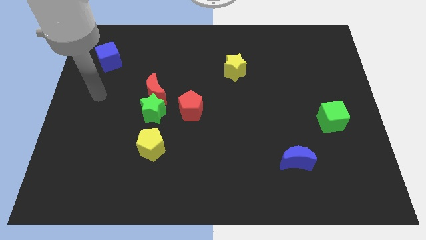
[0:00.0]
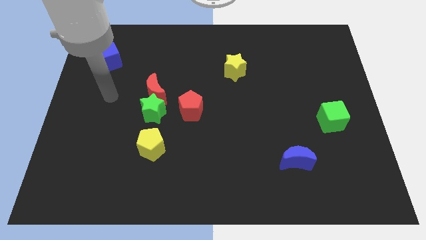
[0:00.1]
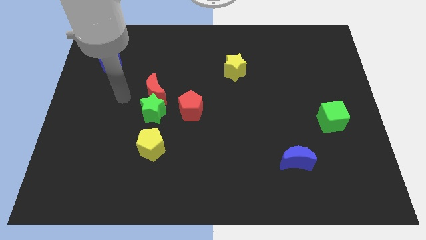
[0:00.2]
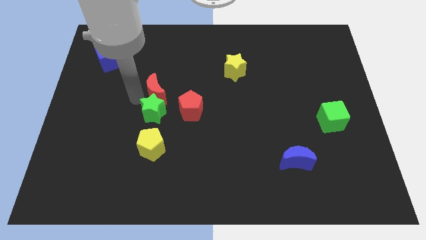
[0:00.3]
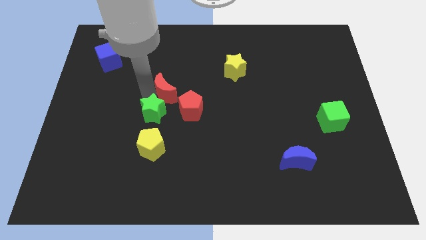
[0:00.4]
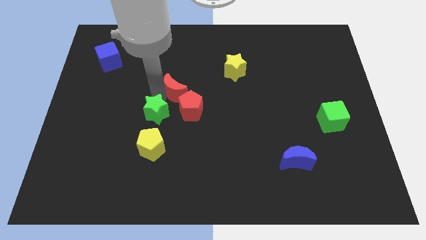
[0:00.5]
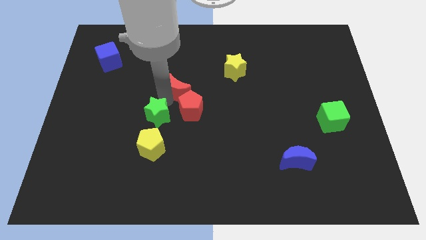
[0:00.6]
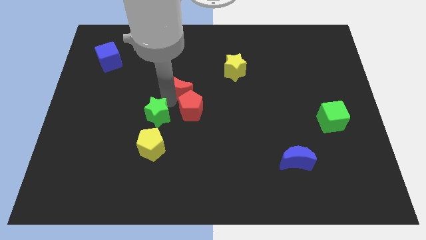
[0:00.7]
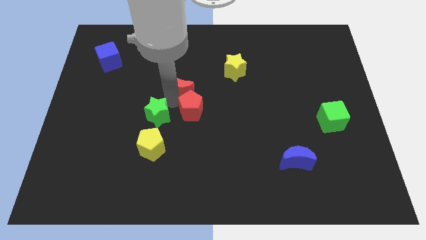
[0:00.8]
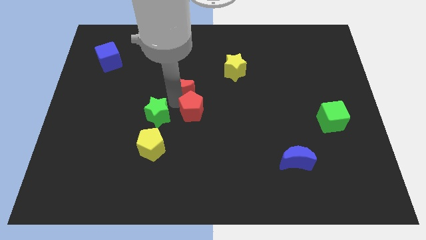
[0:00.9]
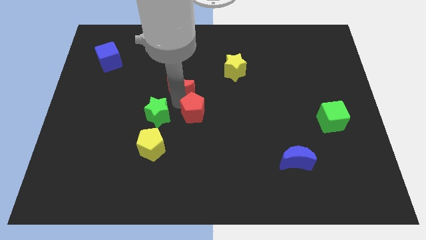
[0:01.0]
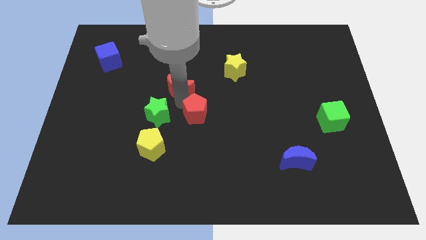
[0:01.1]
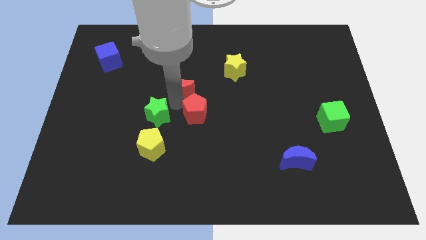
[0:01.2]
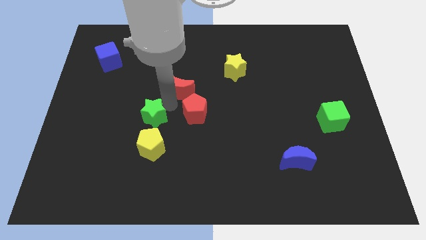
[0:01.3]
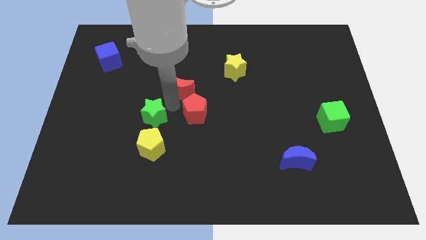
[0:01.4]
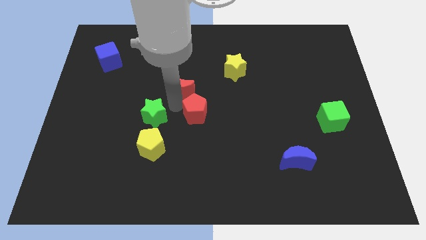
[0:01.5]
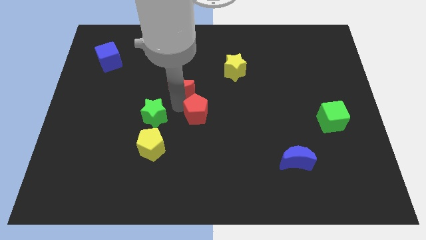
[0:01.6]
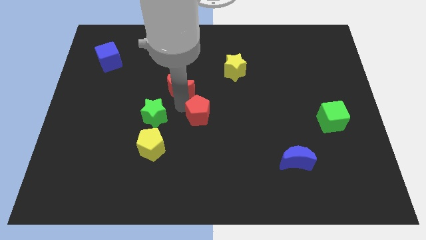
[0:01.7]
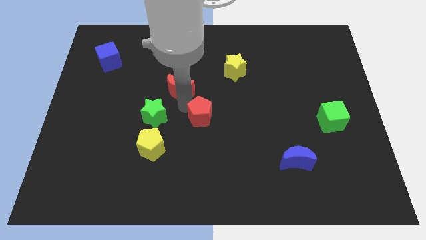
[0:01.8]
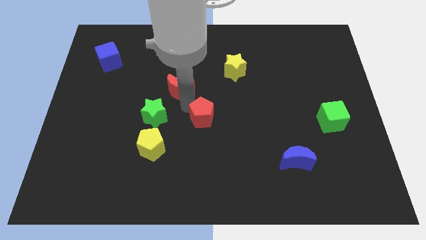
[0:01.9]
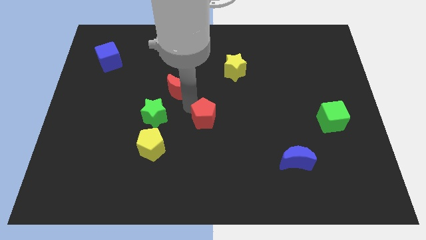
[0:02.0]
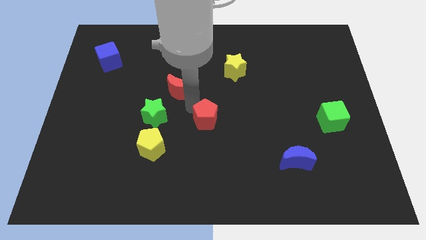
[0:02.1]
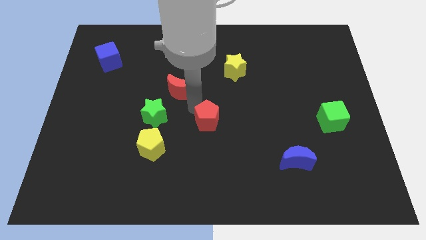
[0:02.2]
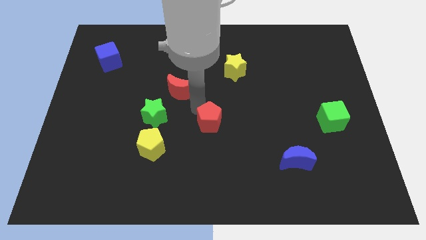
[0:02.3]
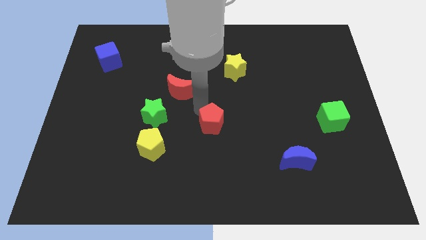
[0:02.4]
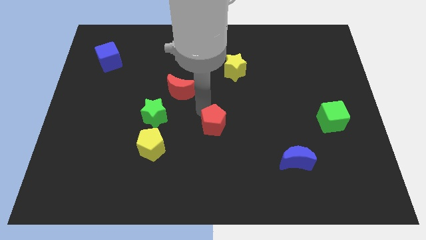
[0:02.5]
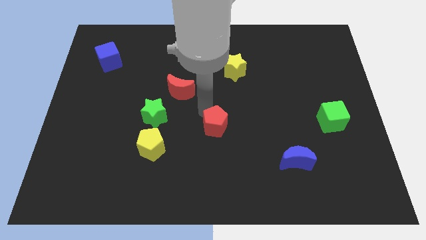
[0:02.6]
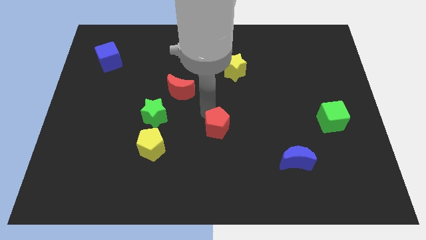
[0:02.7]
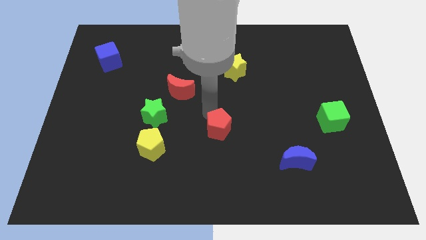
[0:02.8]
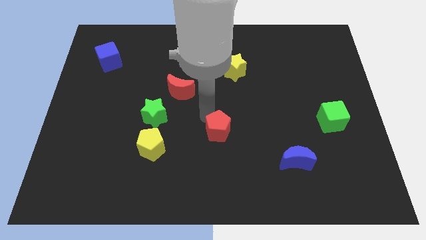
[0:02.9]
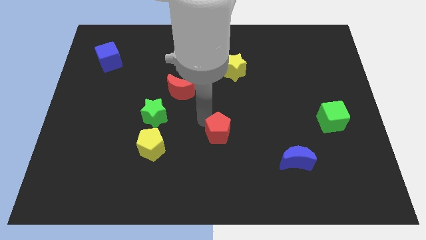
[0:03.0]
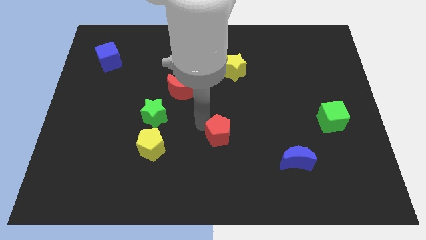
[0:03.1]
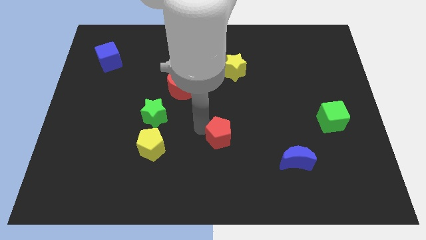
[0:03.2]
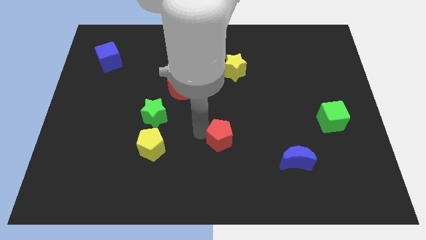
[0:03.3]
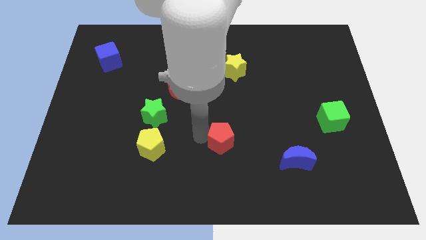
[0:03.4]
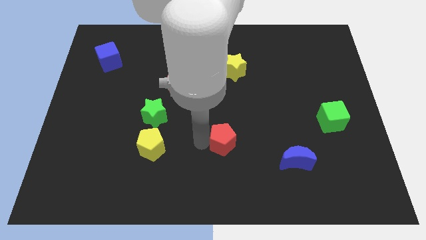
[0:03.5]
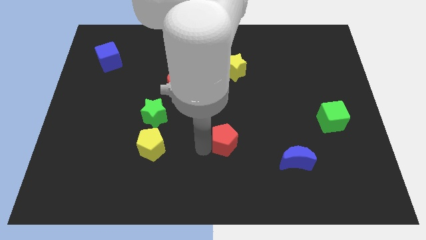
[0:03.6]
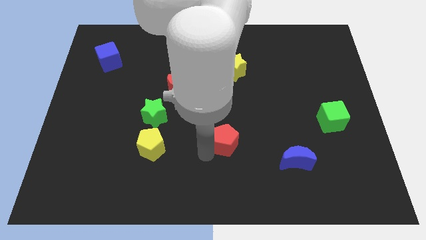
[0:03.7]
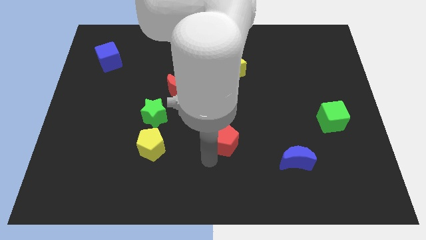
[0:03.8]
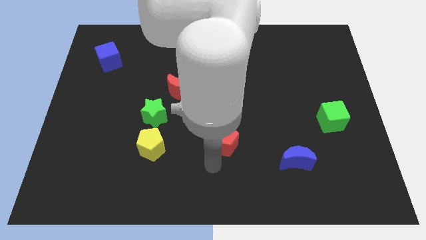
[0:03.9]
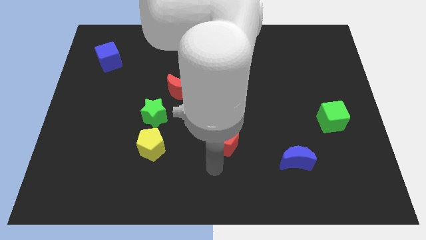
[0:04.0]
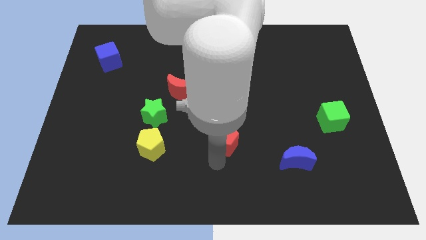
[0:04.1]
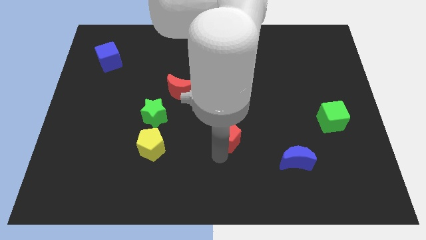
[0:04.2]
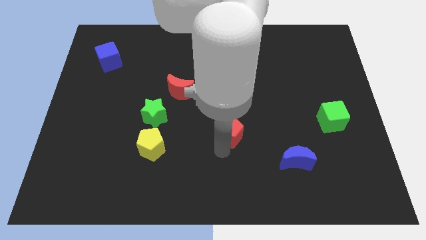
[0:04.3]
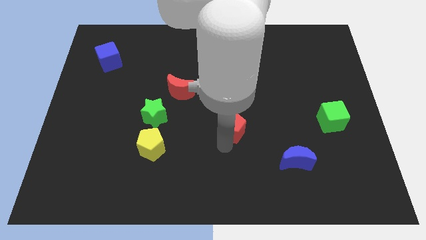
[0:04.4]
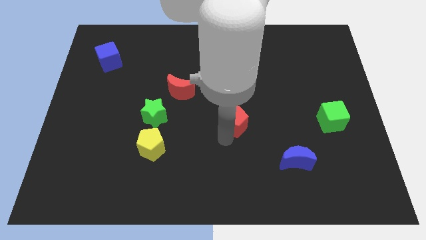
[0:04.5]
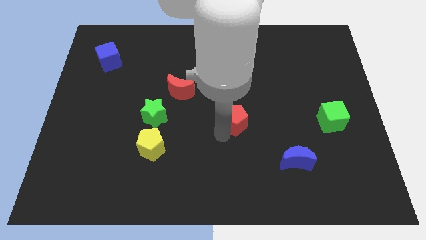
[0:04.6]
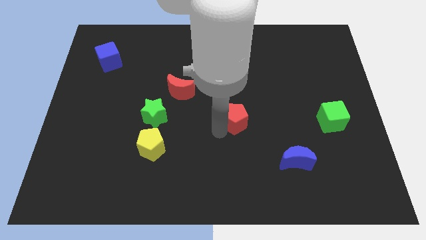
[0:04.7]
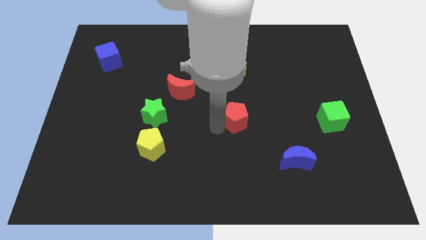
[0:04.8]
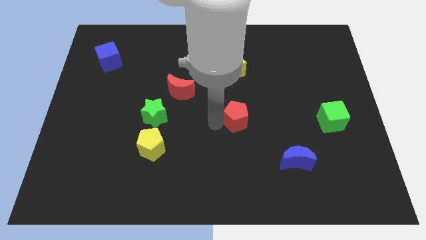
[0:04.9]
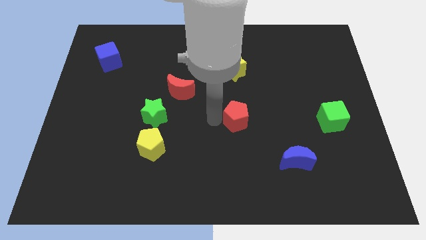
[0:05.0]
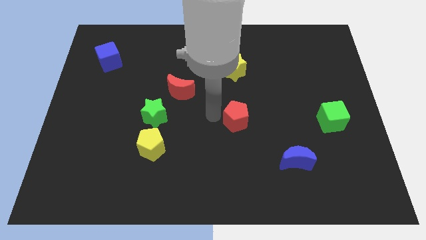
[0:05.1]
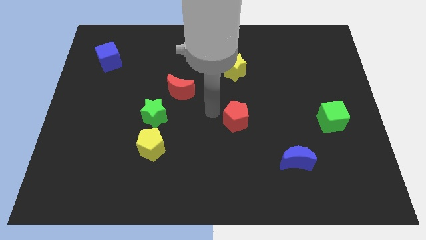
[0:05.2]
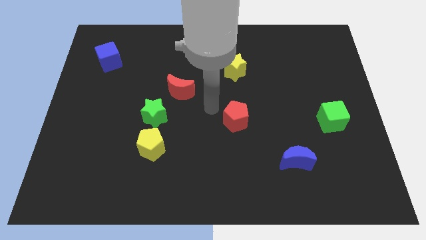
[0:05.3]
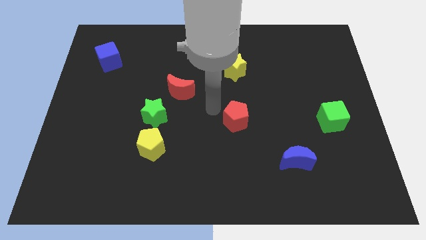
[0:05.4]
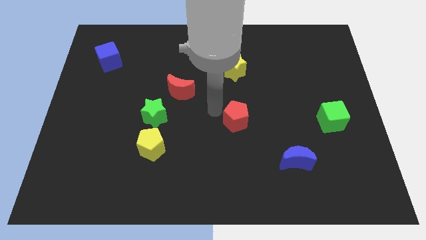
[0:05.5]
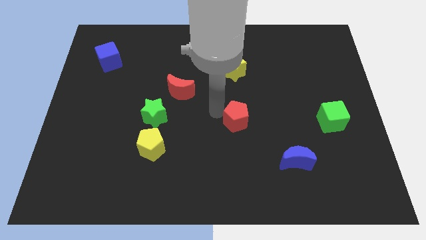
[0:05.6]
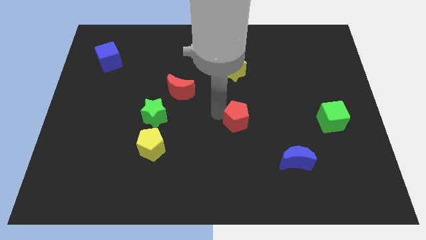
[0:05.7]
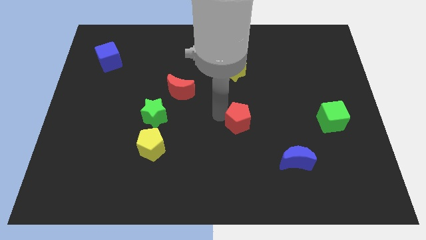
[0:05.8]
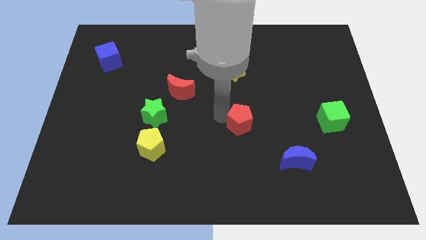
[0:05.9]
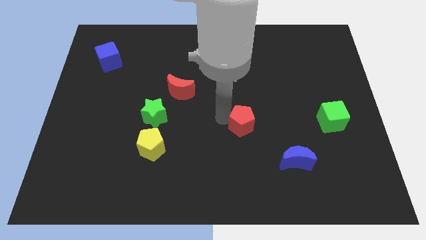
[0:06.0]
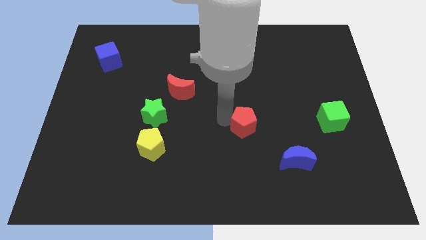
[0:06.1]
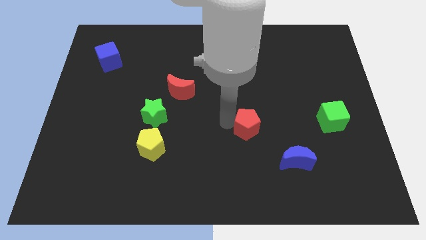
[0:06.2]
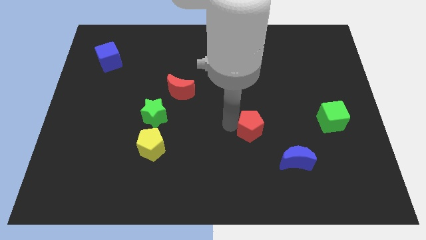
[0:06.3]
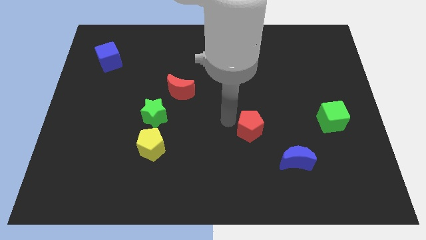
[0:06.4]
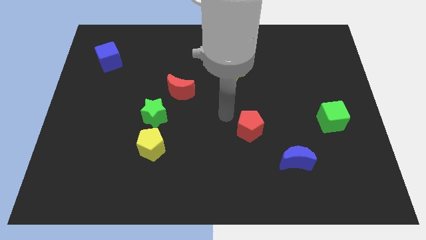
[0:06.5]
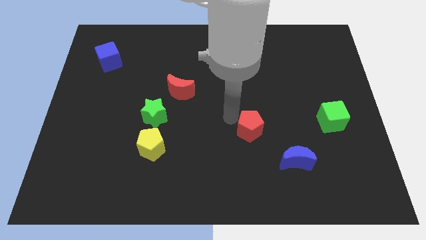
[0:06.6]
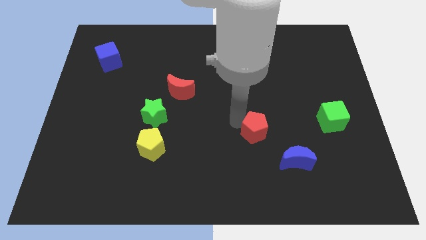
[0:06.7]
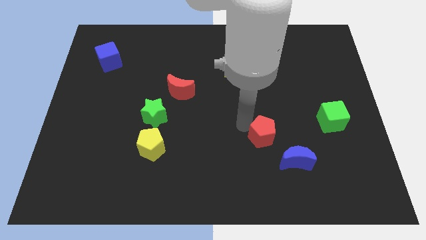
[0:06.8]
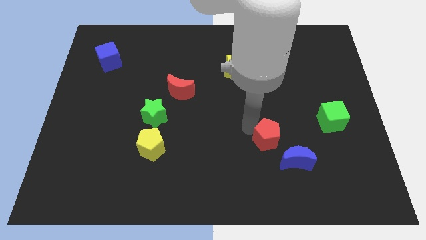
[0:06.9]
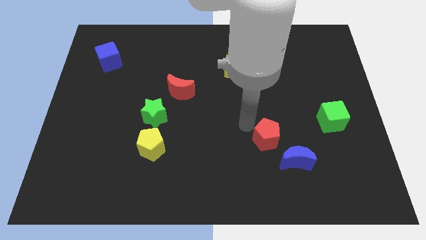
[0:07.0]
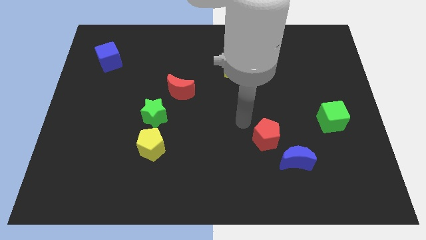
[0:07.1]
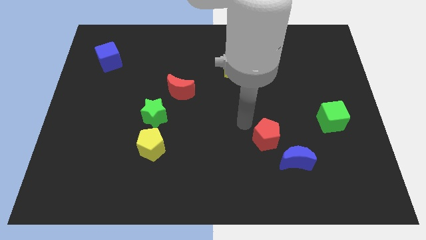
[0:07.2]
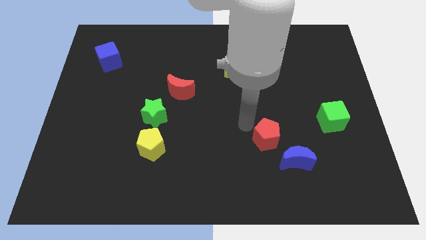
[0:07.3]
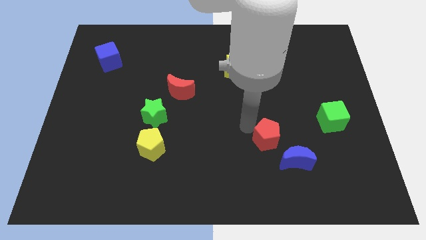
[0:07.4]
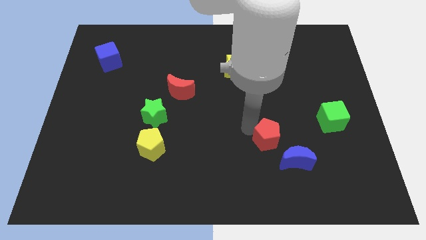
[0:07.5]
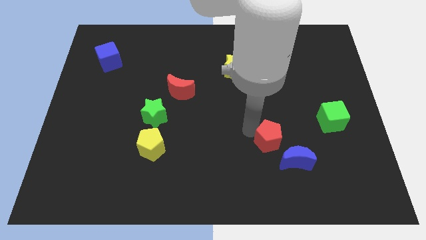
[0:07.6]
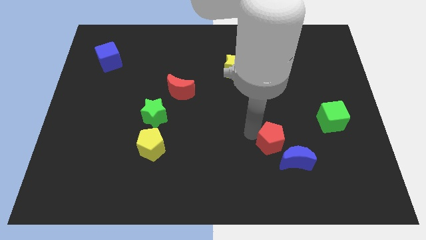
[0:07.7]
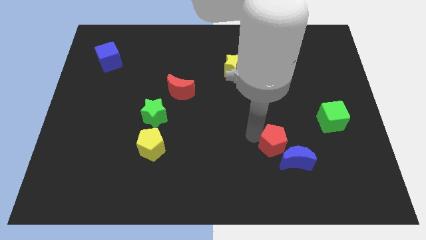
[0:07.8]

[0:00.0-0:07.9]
move the red pentagon next to the blue moon
